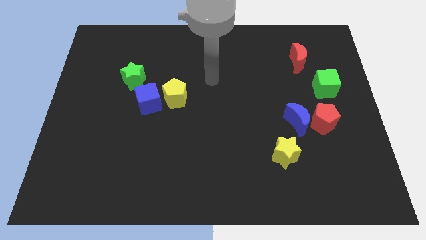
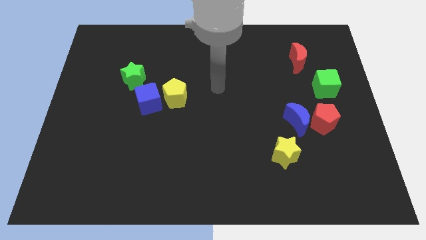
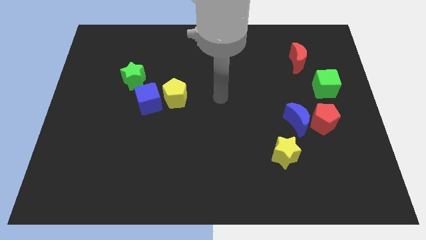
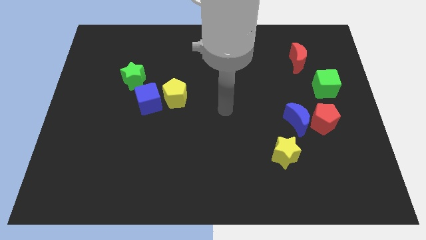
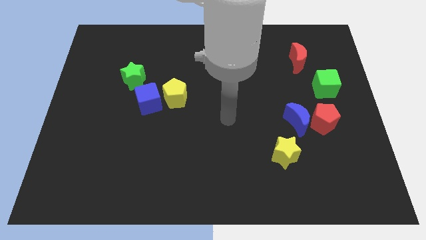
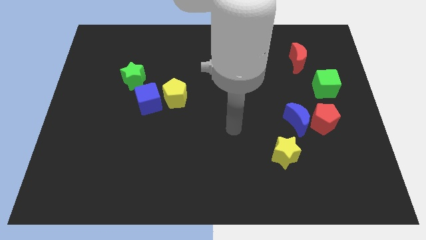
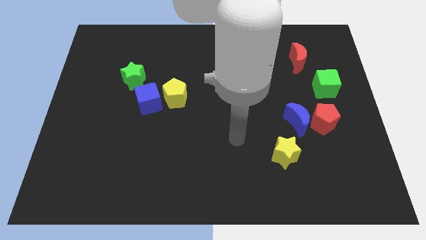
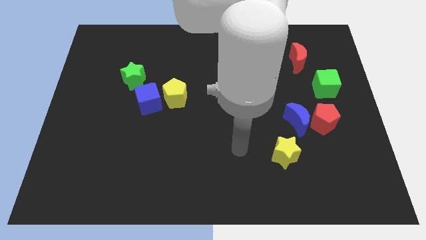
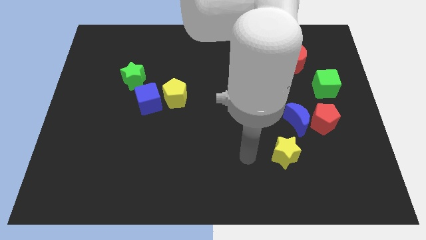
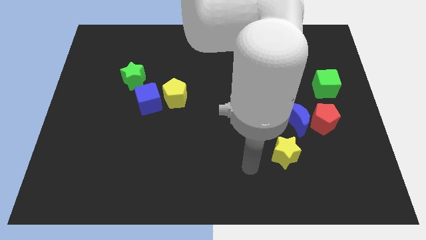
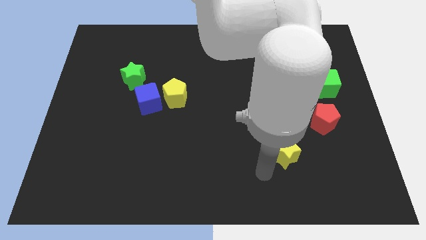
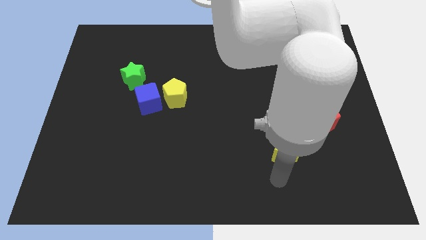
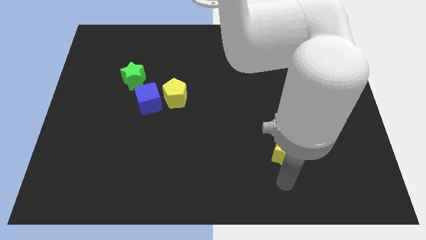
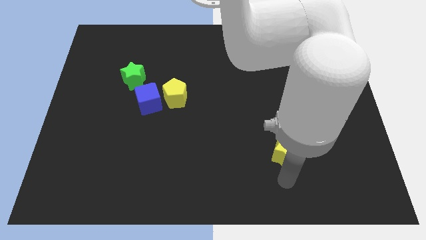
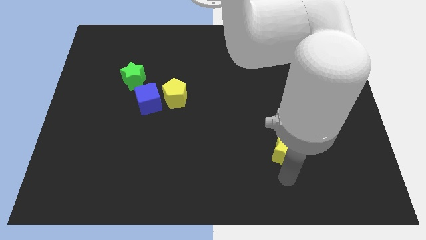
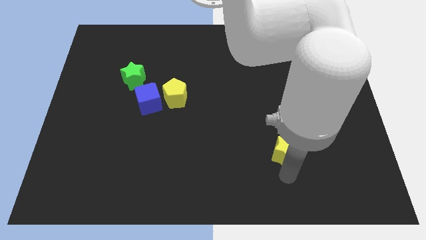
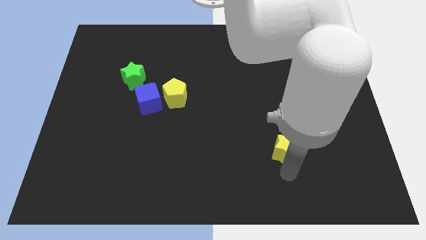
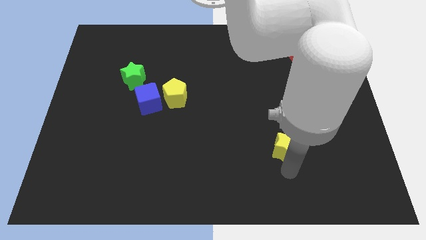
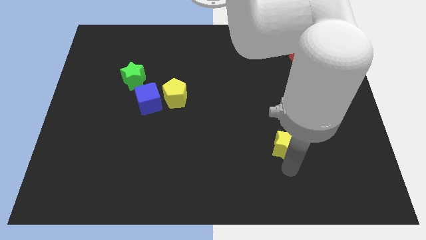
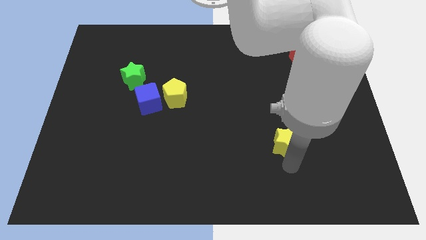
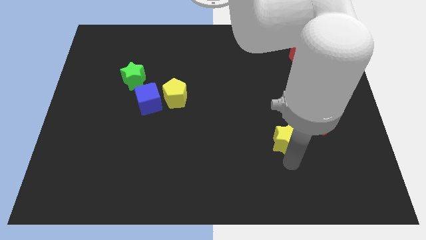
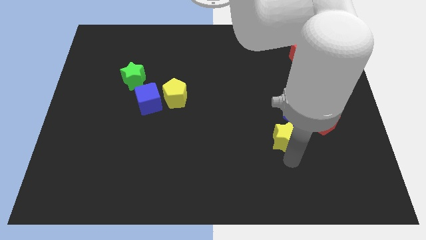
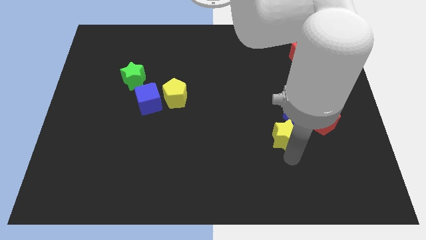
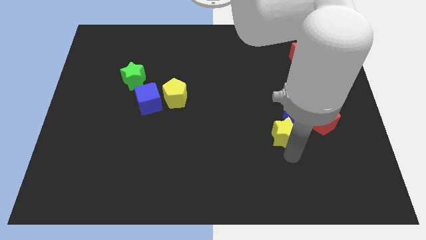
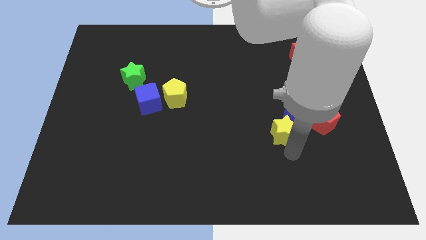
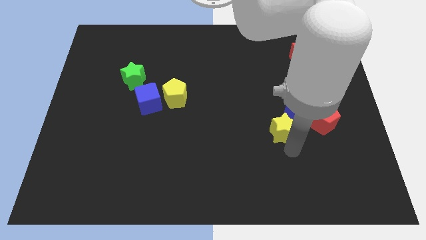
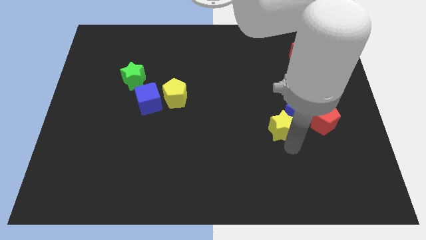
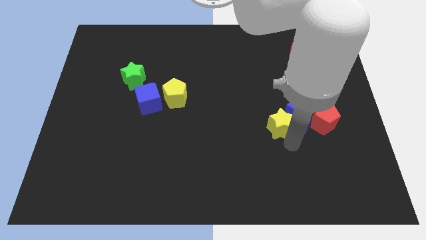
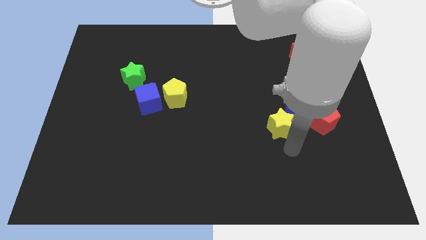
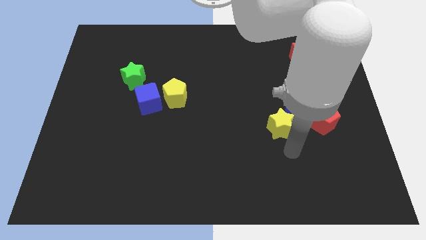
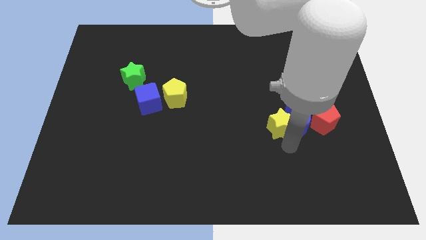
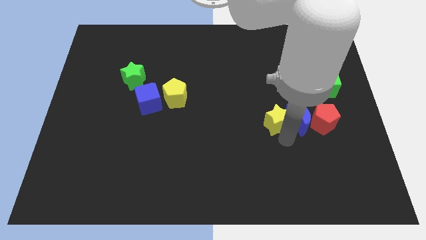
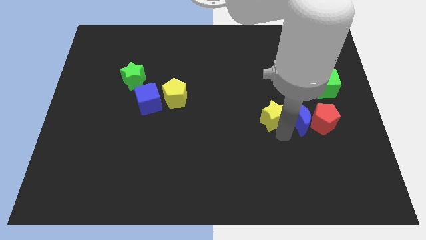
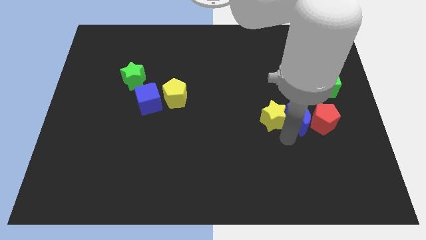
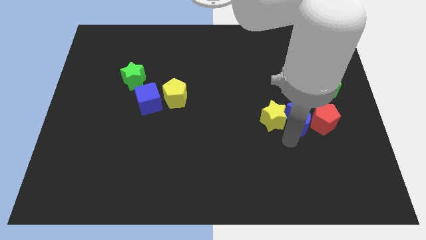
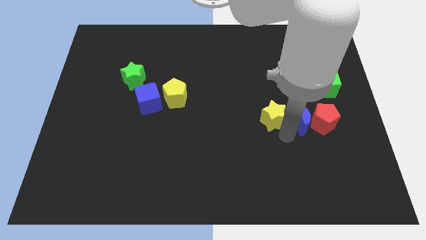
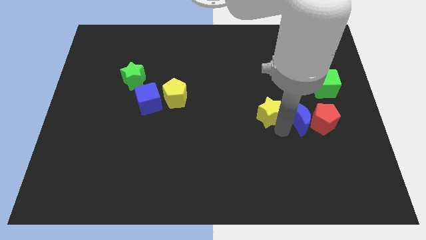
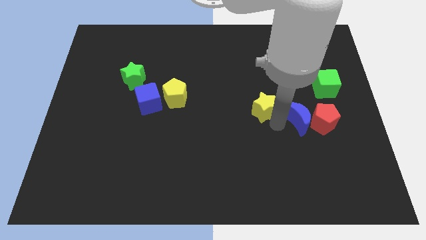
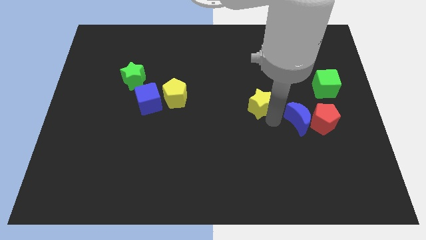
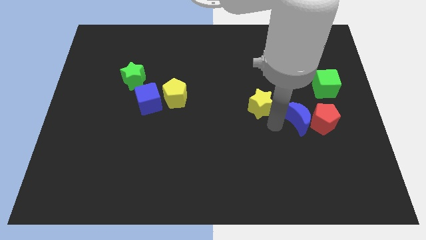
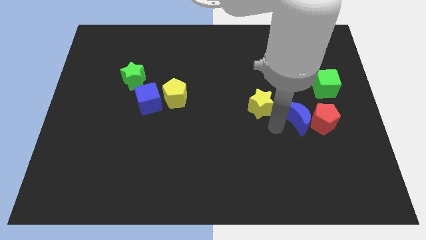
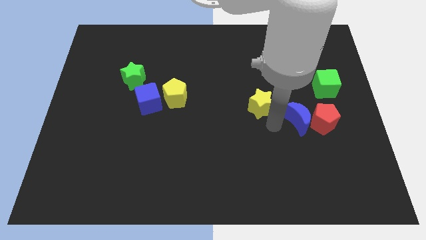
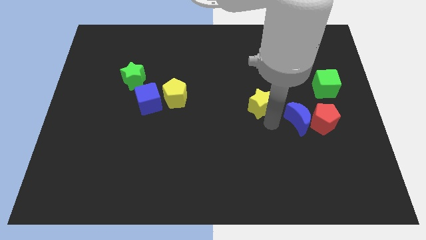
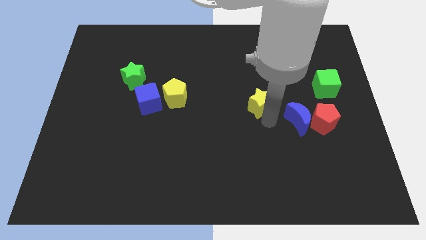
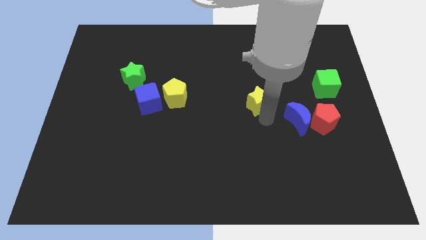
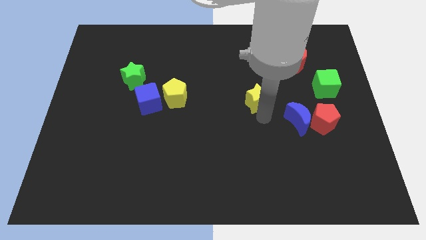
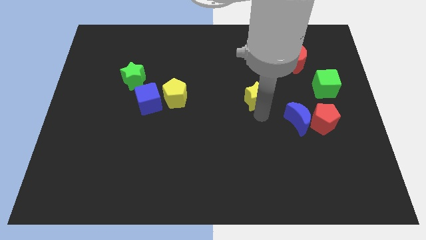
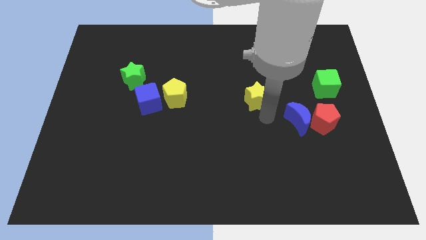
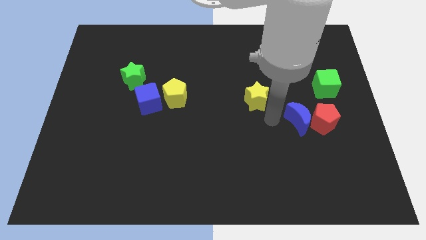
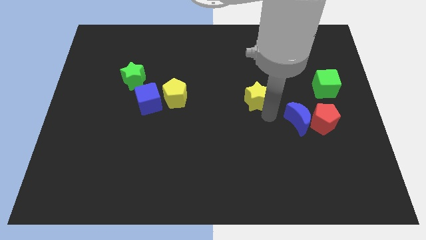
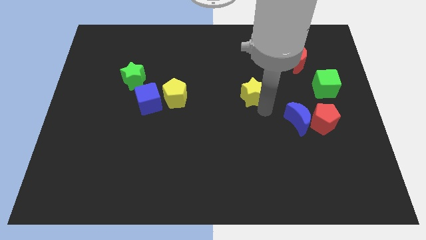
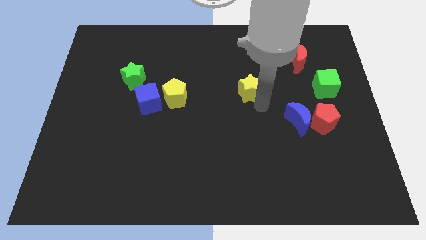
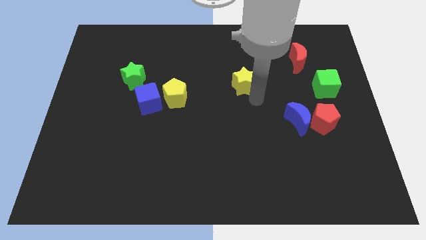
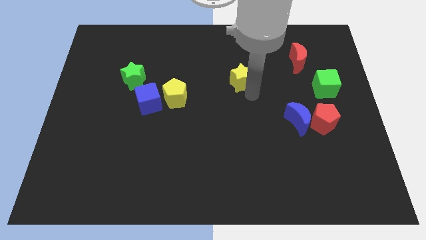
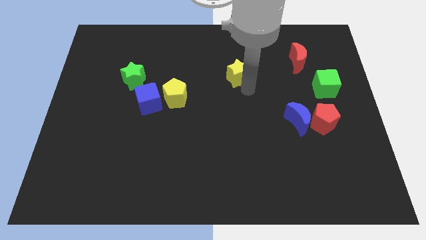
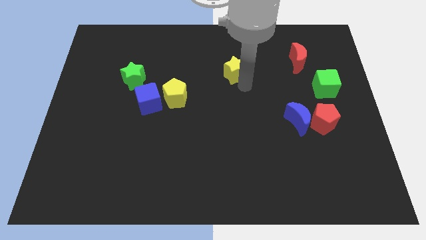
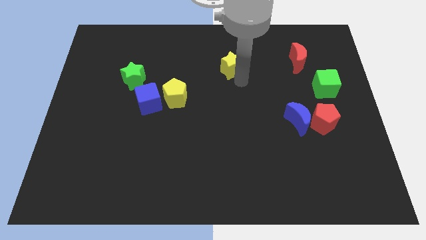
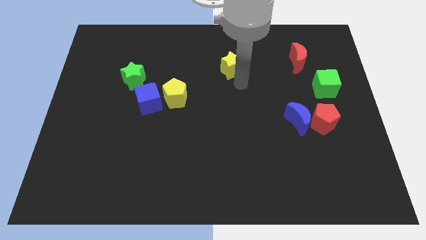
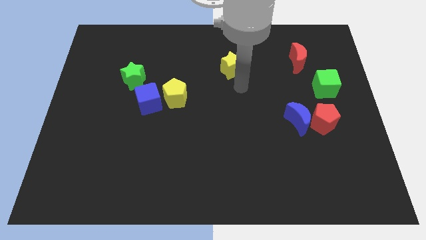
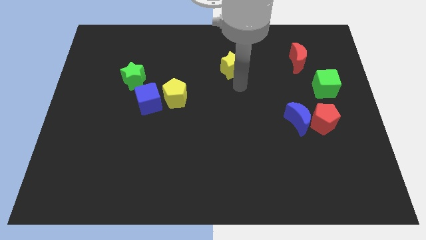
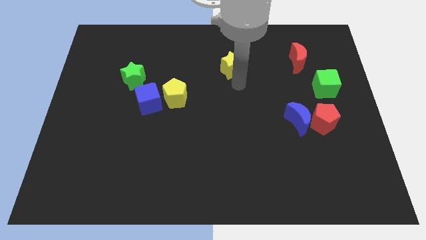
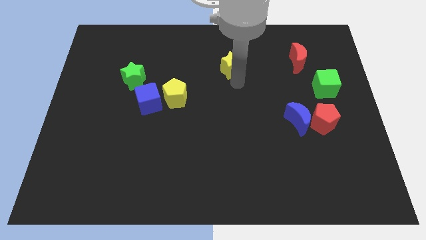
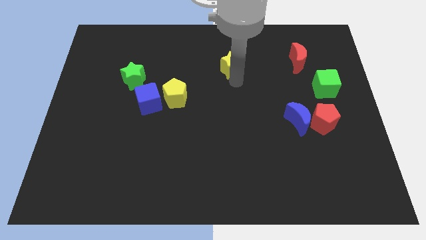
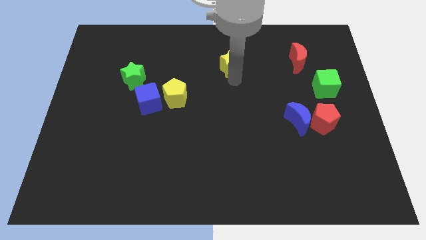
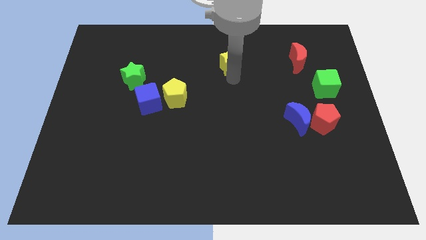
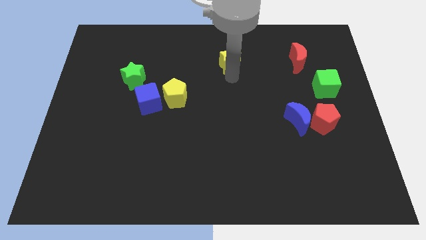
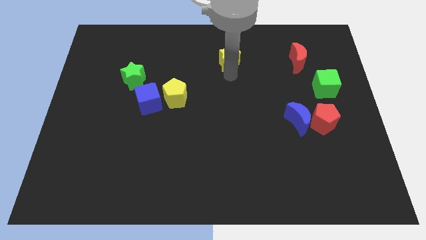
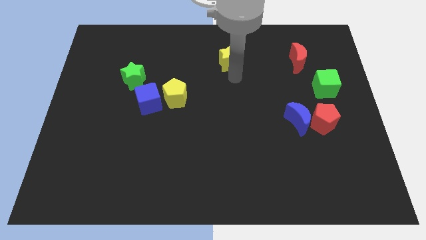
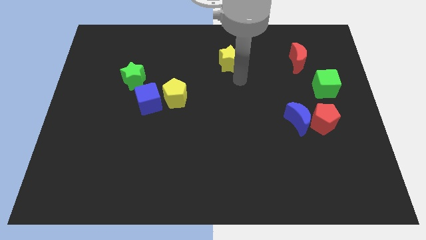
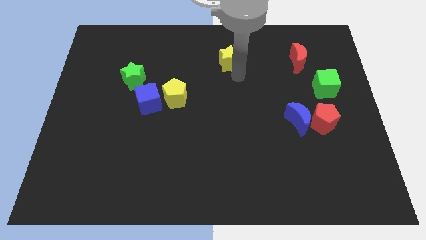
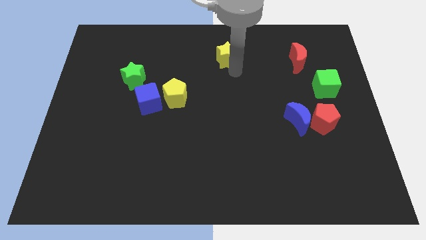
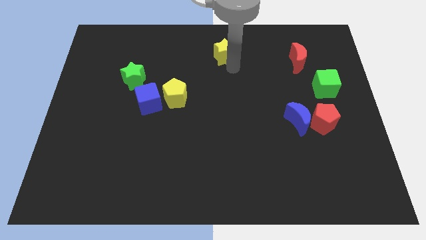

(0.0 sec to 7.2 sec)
move the yellow star to the top
